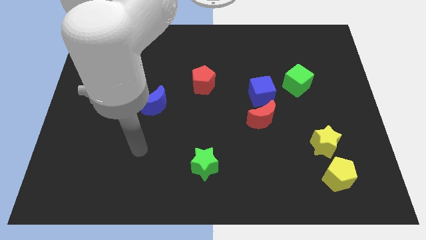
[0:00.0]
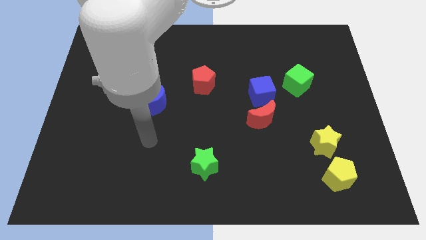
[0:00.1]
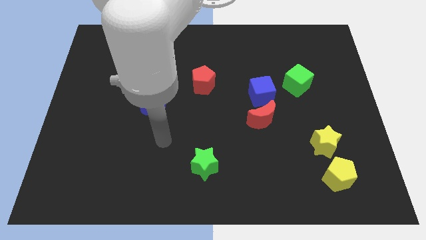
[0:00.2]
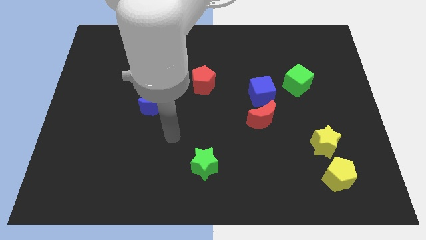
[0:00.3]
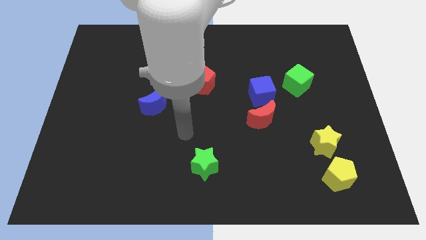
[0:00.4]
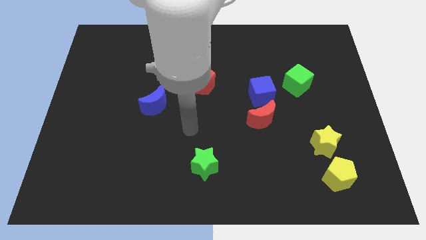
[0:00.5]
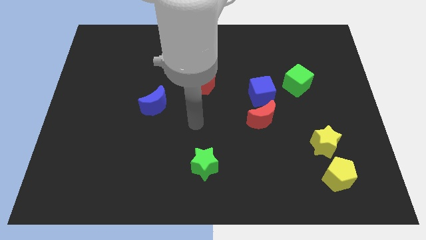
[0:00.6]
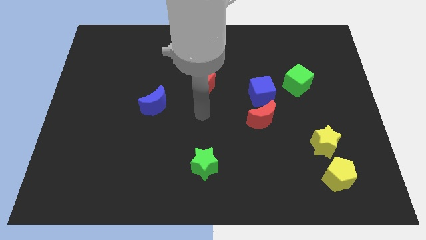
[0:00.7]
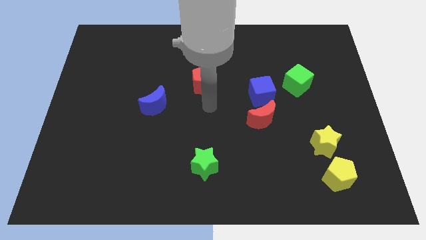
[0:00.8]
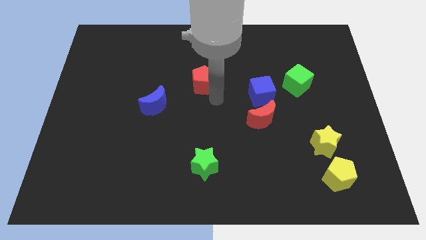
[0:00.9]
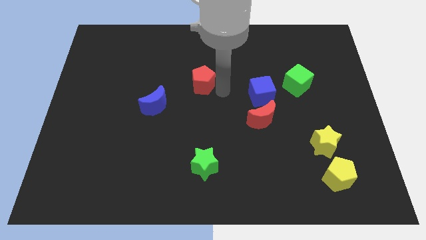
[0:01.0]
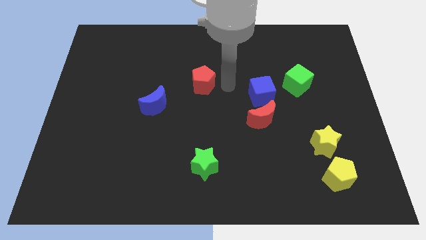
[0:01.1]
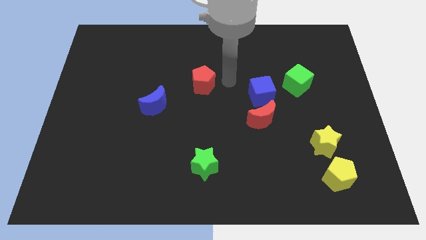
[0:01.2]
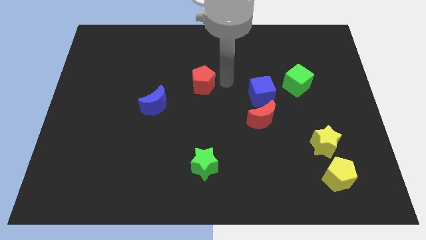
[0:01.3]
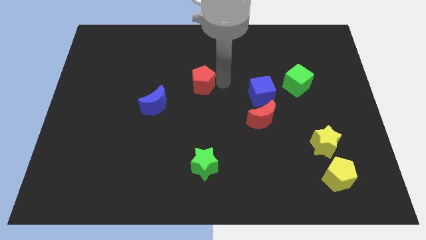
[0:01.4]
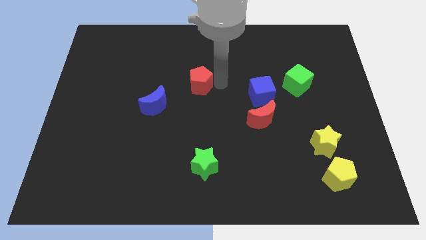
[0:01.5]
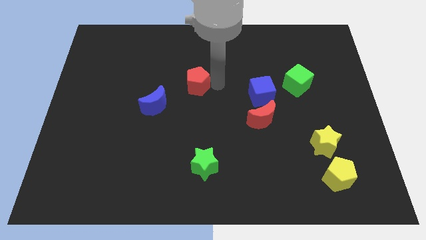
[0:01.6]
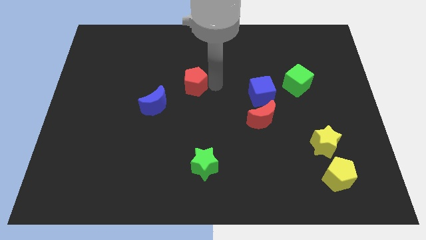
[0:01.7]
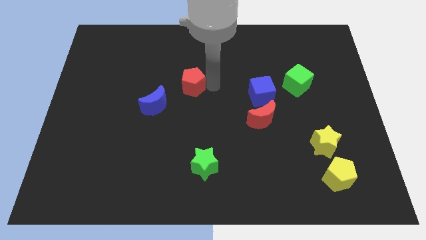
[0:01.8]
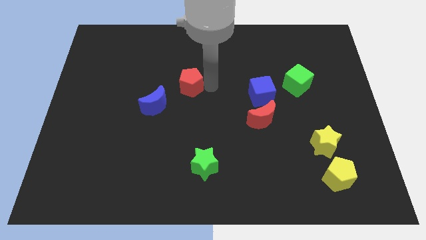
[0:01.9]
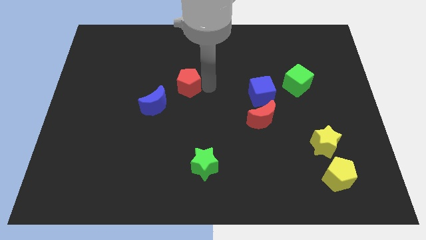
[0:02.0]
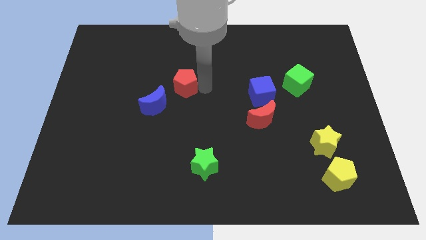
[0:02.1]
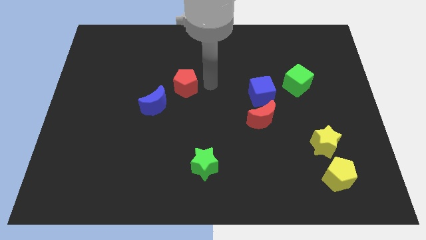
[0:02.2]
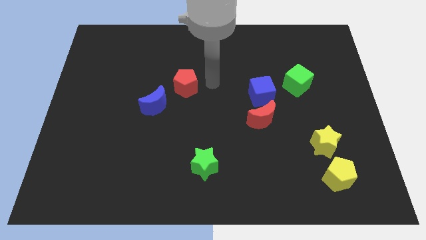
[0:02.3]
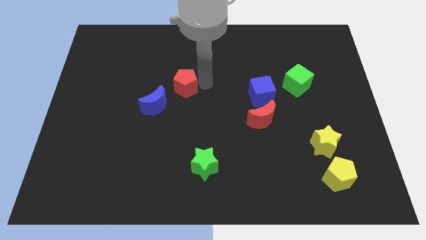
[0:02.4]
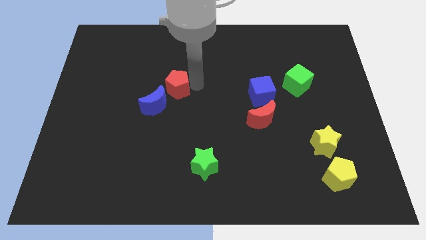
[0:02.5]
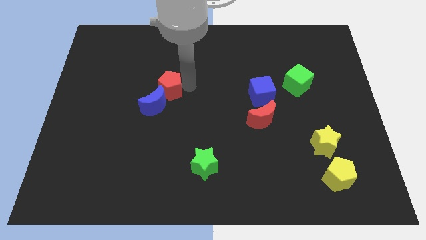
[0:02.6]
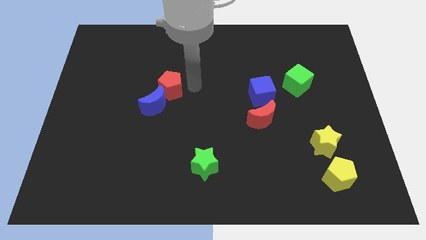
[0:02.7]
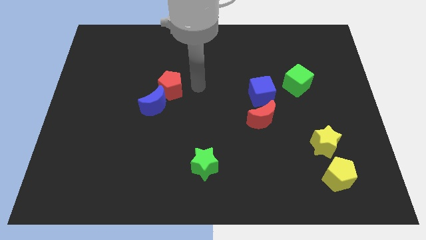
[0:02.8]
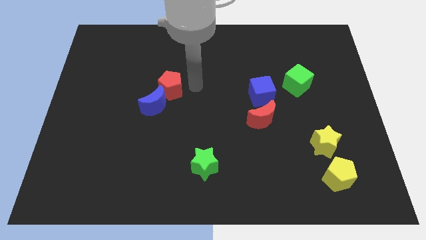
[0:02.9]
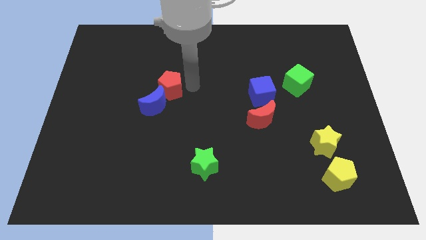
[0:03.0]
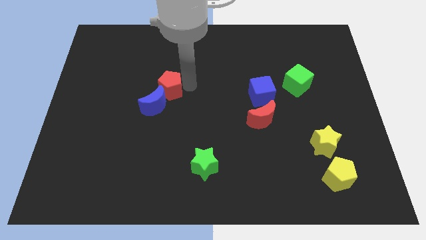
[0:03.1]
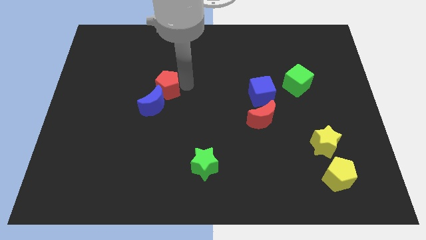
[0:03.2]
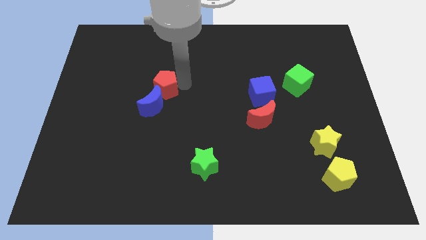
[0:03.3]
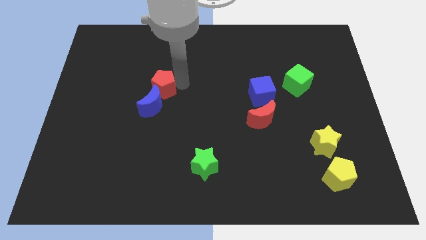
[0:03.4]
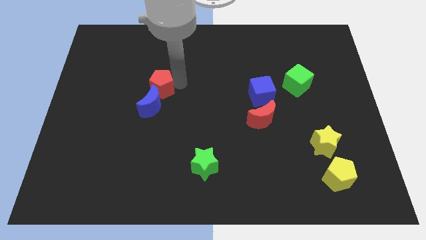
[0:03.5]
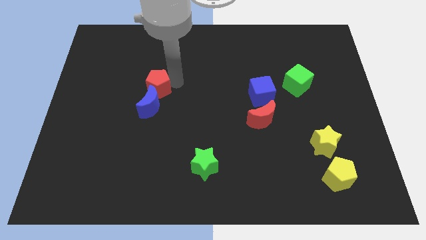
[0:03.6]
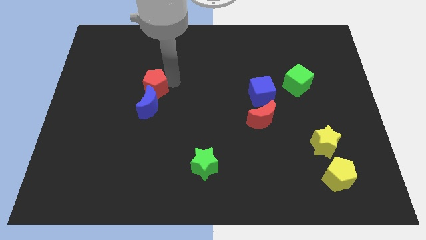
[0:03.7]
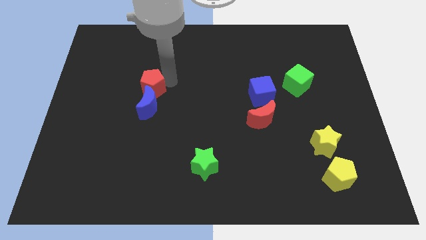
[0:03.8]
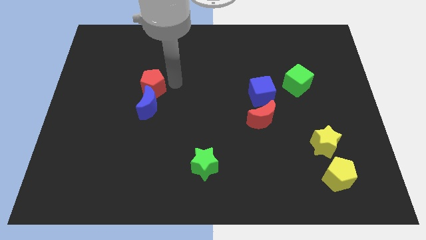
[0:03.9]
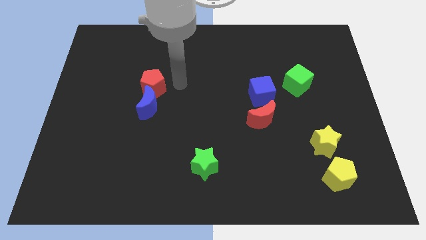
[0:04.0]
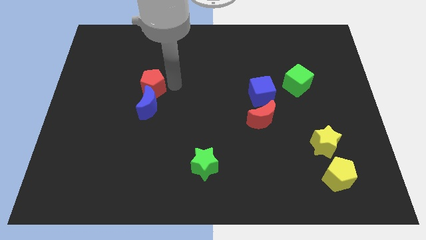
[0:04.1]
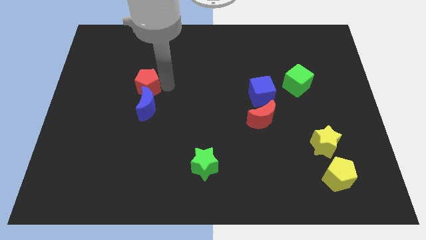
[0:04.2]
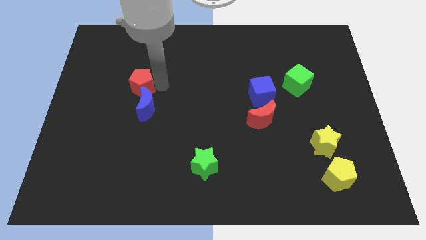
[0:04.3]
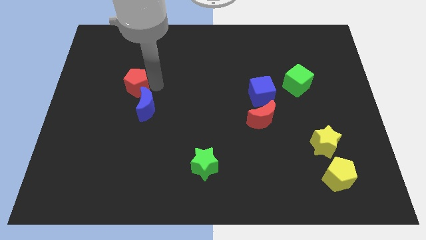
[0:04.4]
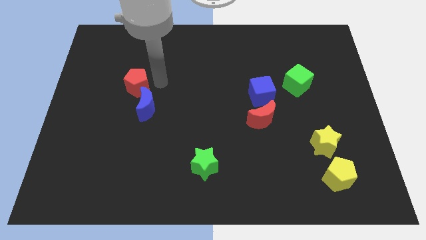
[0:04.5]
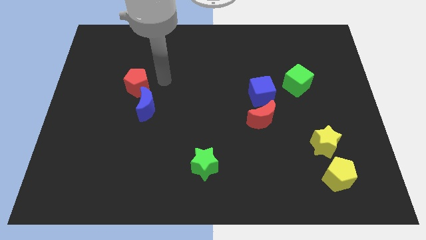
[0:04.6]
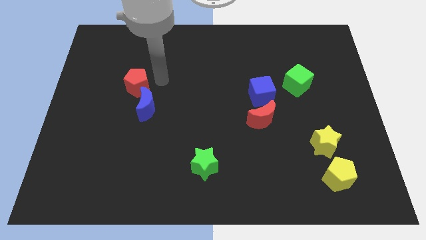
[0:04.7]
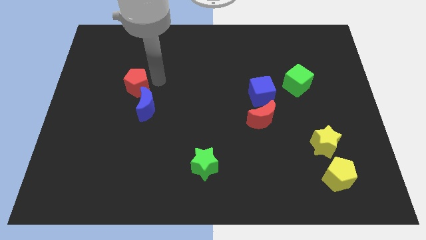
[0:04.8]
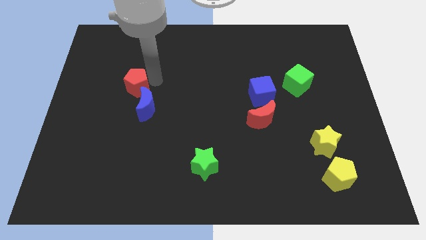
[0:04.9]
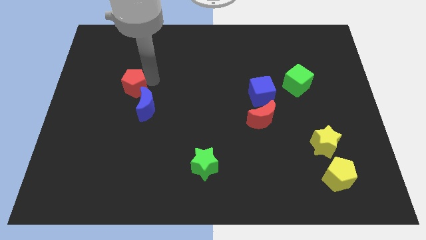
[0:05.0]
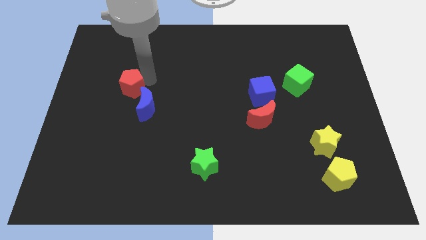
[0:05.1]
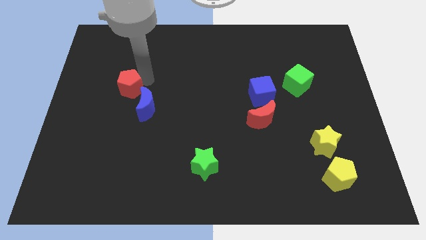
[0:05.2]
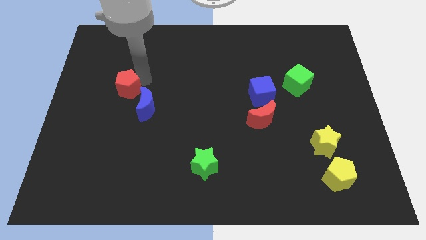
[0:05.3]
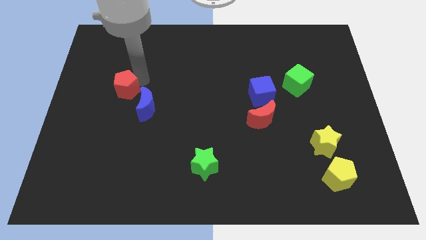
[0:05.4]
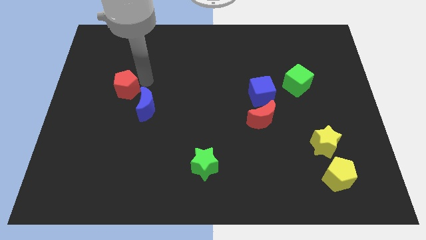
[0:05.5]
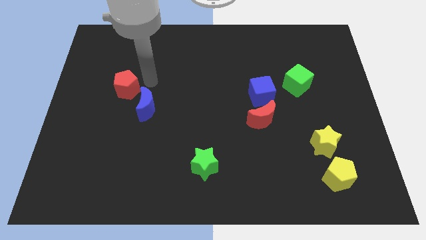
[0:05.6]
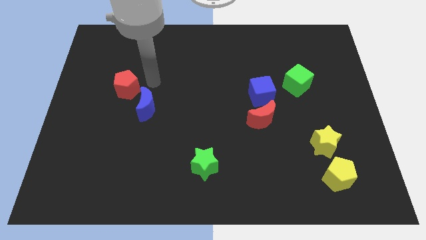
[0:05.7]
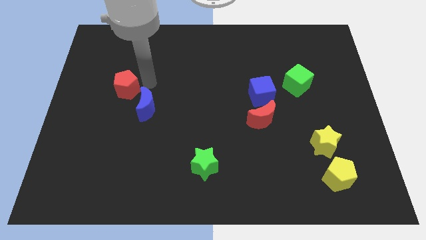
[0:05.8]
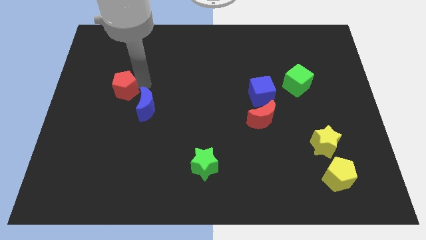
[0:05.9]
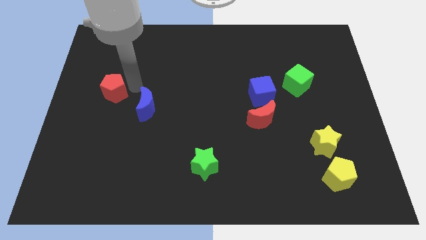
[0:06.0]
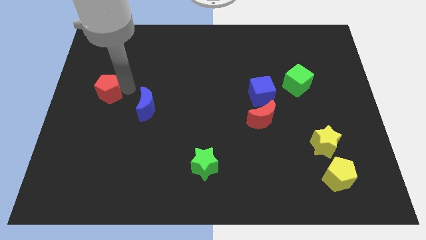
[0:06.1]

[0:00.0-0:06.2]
slide the red pentagon to the left side of the board

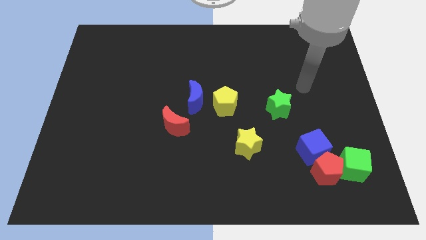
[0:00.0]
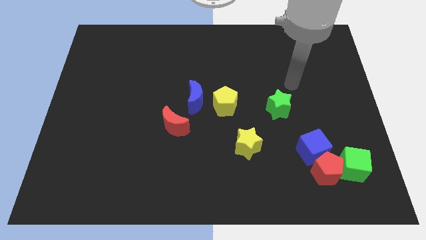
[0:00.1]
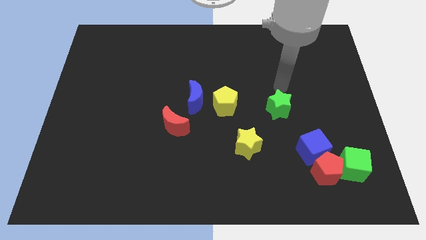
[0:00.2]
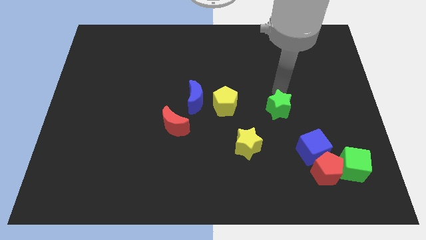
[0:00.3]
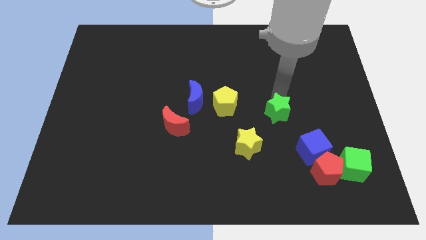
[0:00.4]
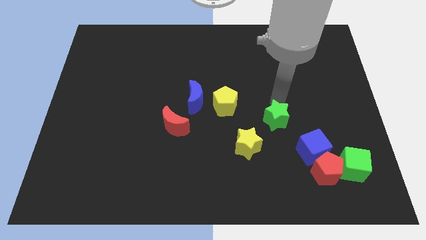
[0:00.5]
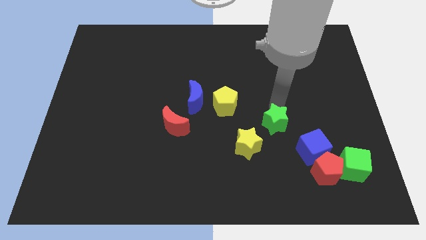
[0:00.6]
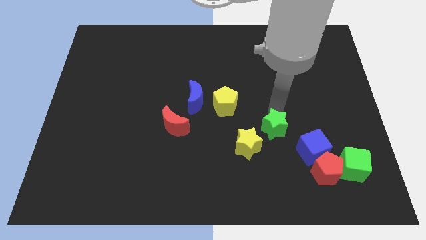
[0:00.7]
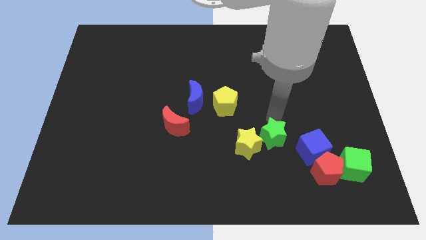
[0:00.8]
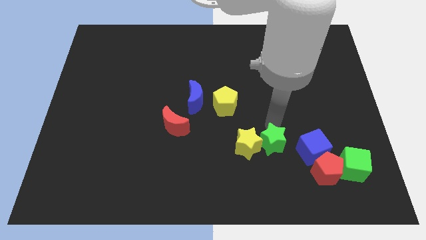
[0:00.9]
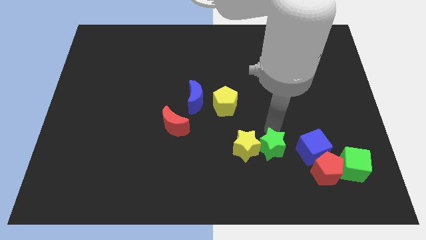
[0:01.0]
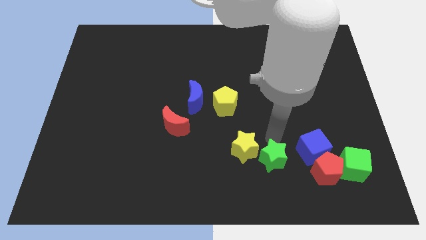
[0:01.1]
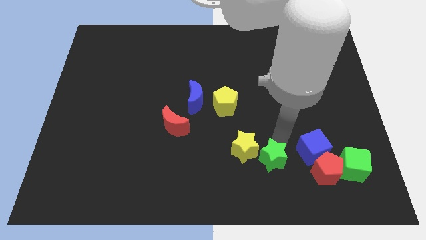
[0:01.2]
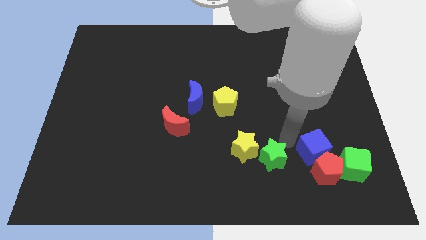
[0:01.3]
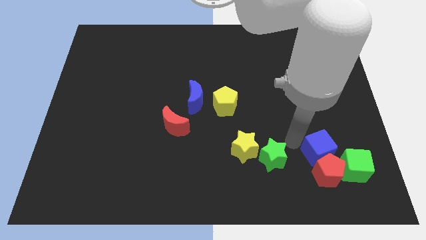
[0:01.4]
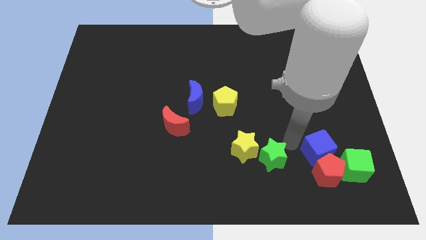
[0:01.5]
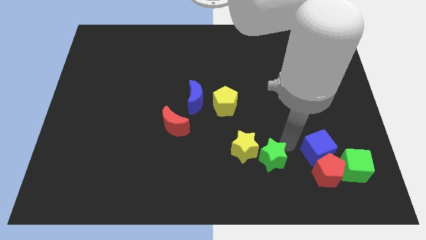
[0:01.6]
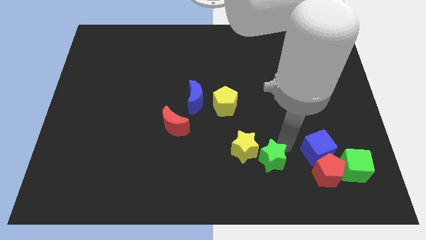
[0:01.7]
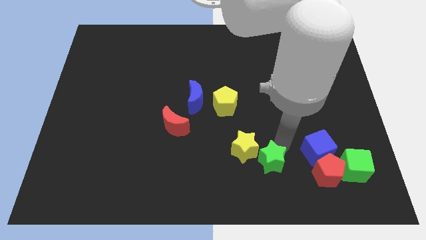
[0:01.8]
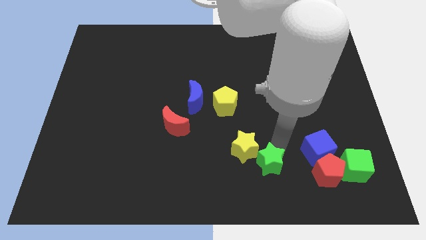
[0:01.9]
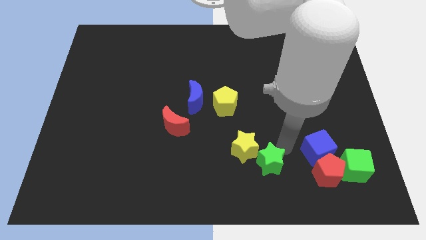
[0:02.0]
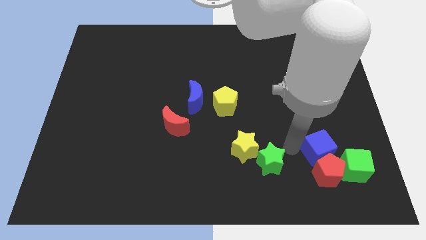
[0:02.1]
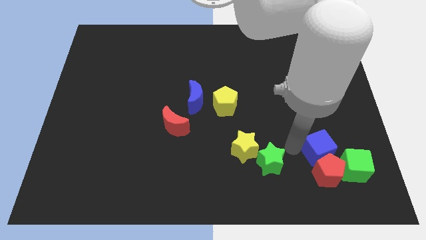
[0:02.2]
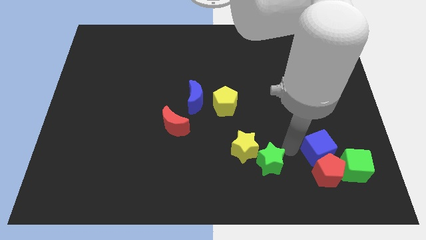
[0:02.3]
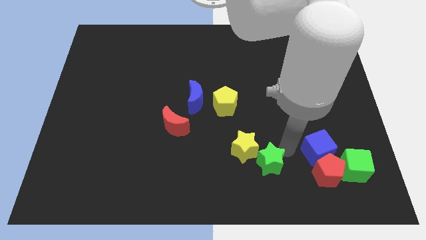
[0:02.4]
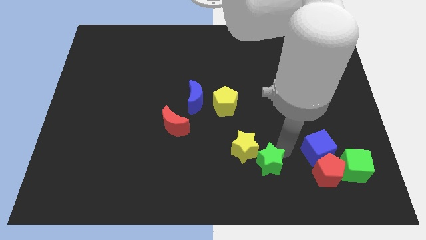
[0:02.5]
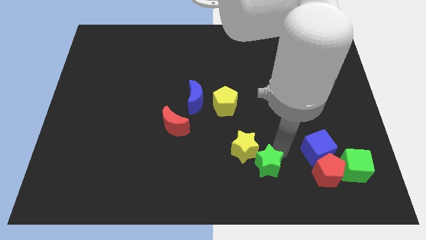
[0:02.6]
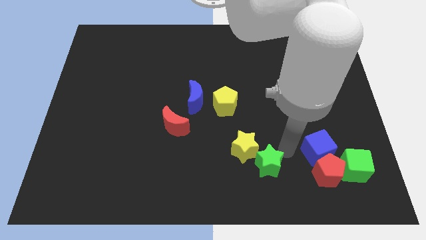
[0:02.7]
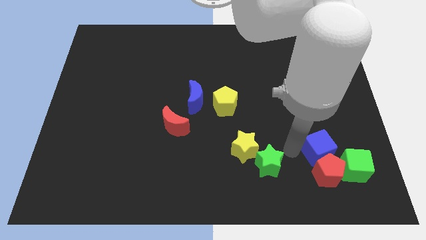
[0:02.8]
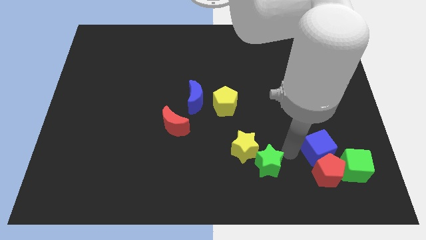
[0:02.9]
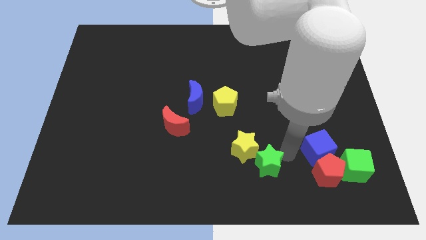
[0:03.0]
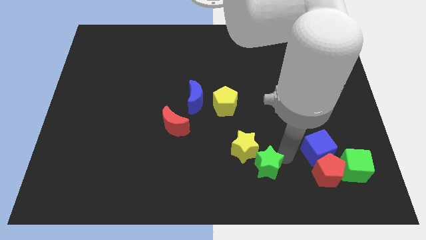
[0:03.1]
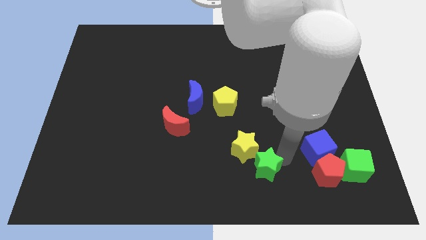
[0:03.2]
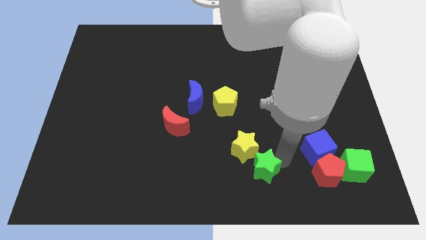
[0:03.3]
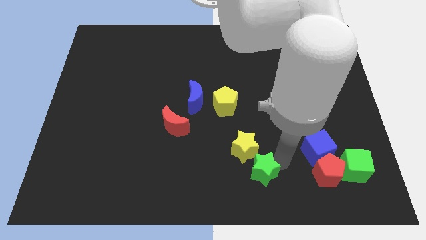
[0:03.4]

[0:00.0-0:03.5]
push the green star to the bottom
